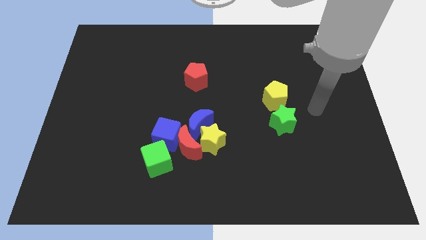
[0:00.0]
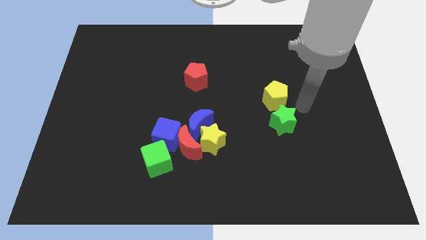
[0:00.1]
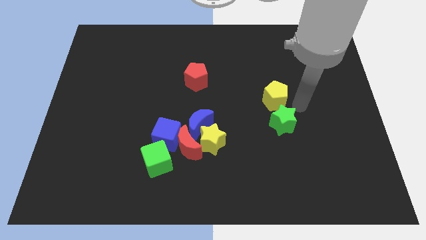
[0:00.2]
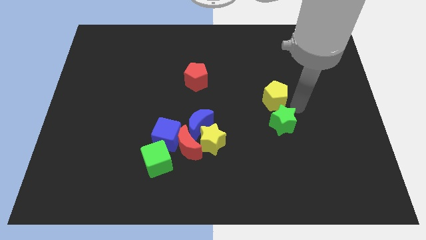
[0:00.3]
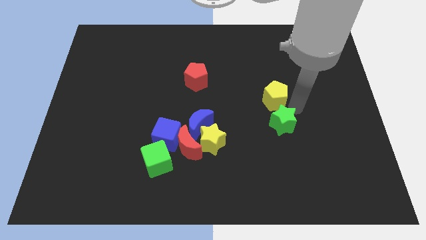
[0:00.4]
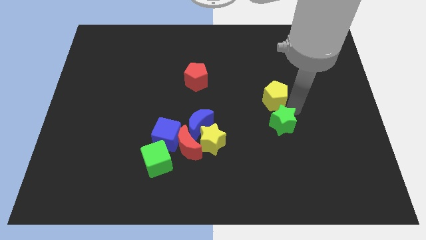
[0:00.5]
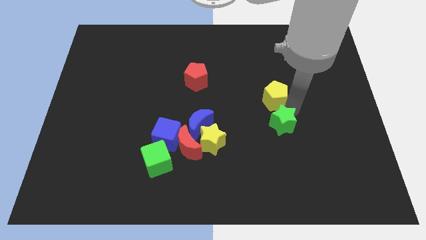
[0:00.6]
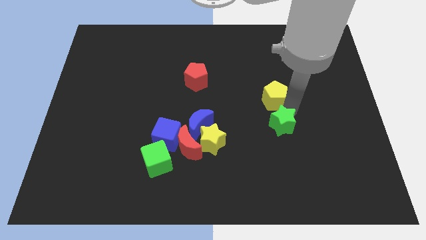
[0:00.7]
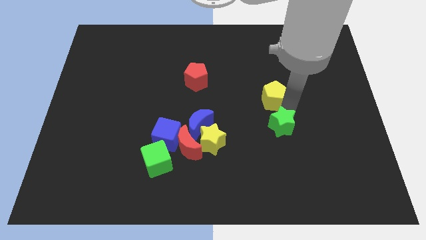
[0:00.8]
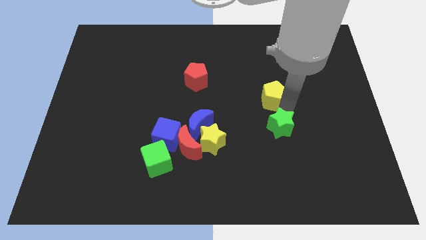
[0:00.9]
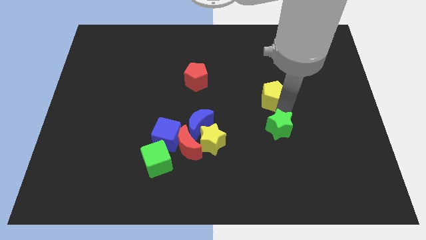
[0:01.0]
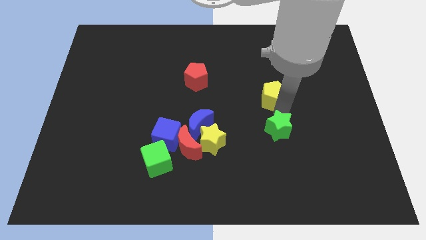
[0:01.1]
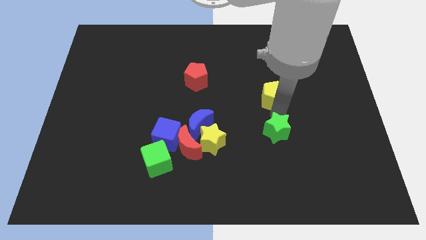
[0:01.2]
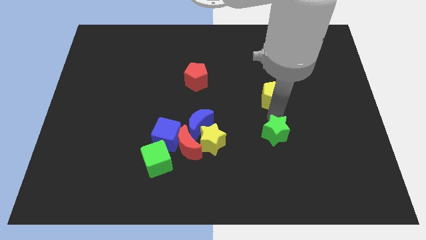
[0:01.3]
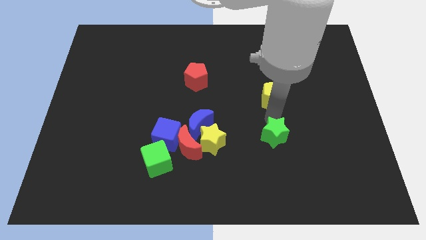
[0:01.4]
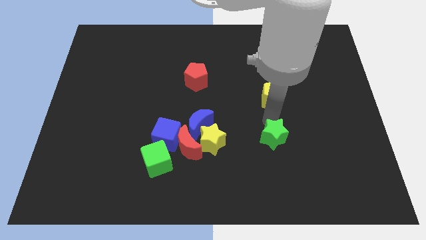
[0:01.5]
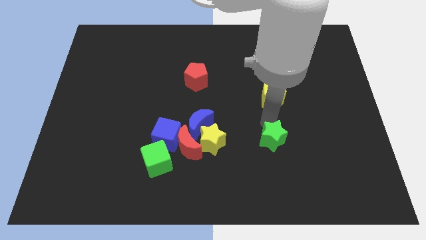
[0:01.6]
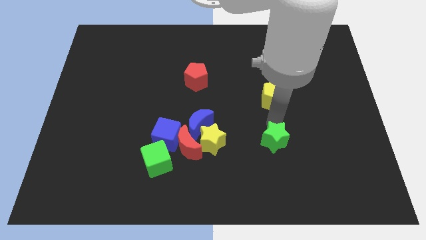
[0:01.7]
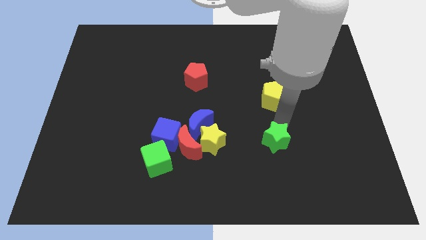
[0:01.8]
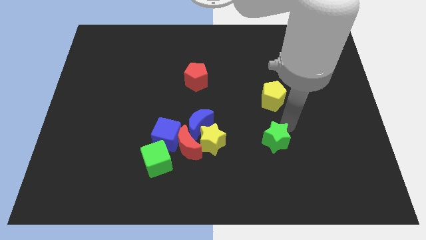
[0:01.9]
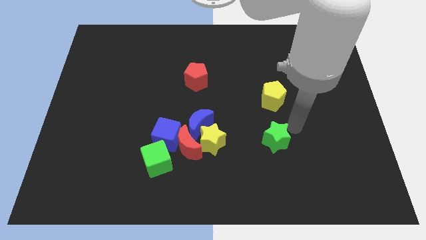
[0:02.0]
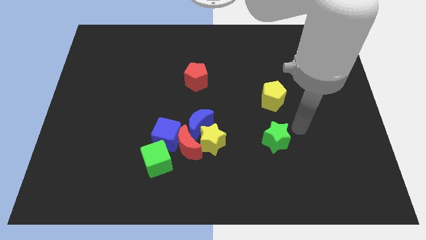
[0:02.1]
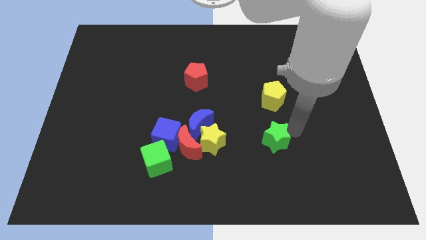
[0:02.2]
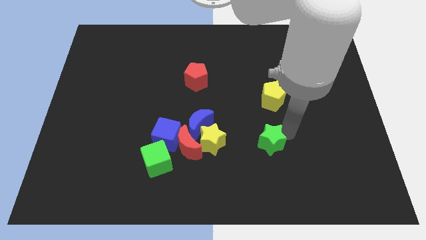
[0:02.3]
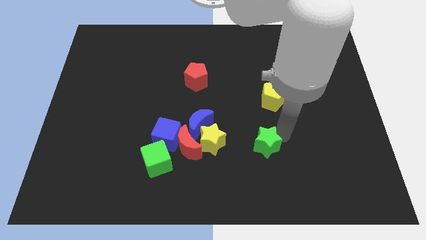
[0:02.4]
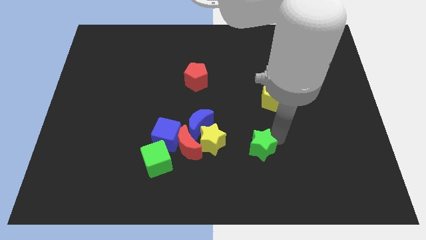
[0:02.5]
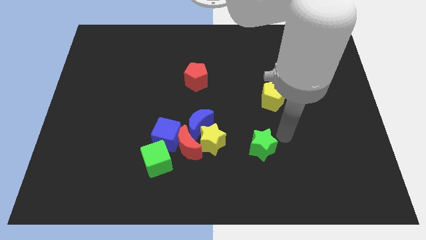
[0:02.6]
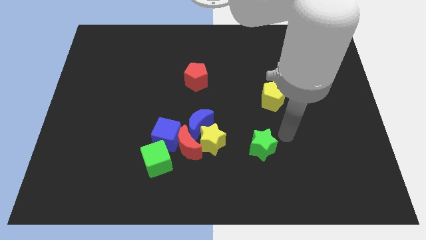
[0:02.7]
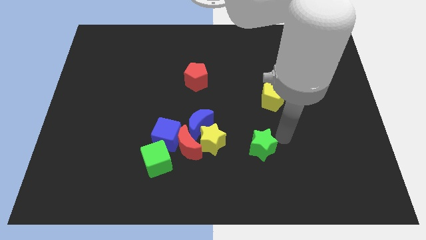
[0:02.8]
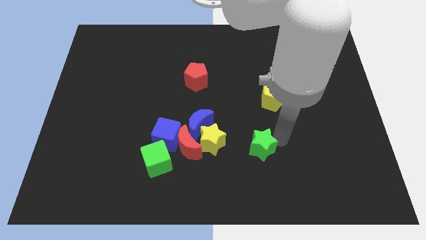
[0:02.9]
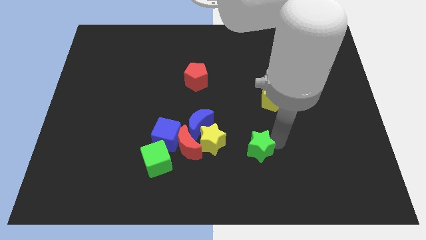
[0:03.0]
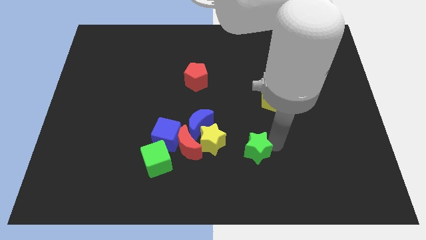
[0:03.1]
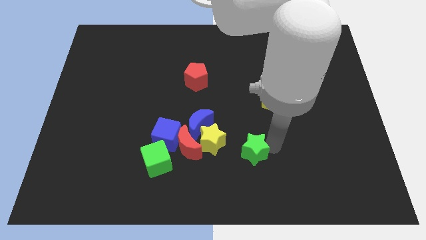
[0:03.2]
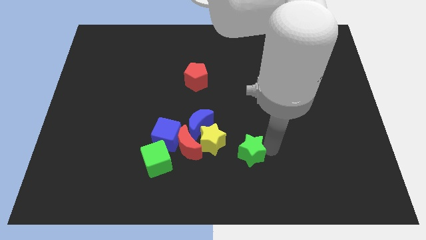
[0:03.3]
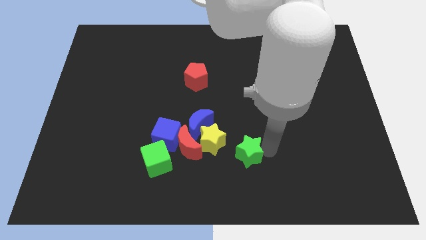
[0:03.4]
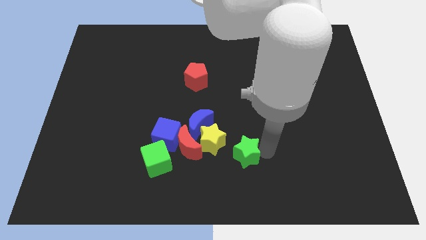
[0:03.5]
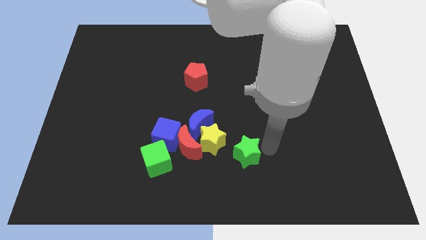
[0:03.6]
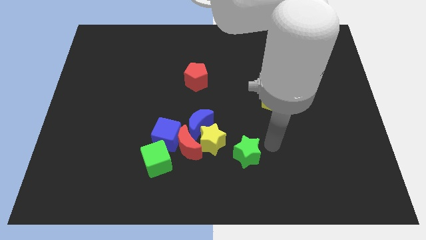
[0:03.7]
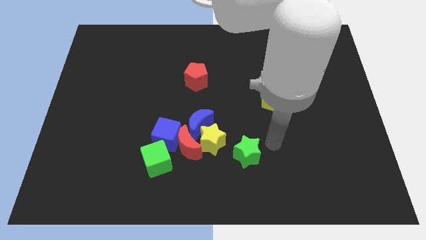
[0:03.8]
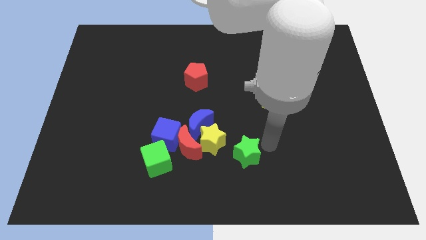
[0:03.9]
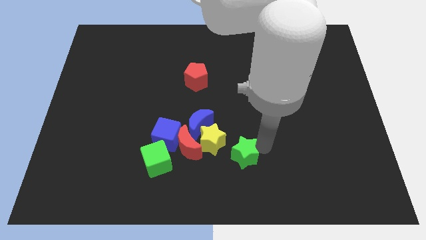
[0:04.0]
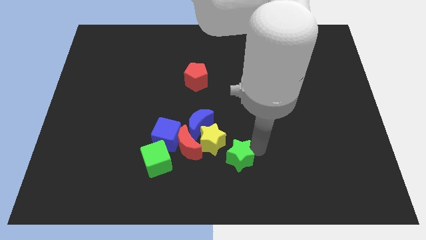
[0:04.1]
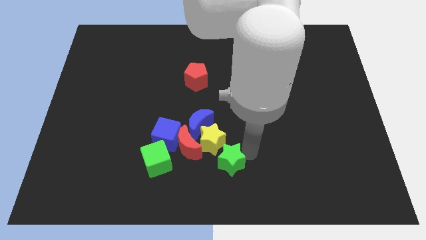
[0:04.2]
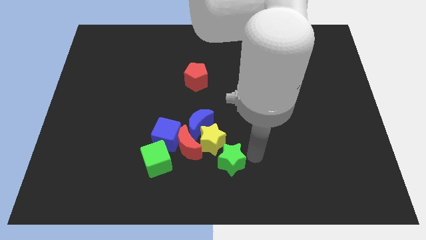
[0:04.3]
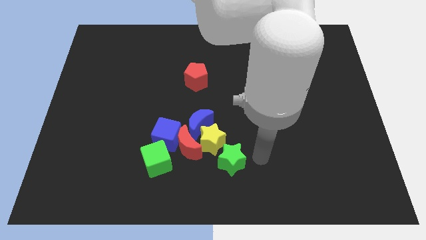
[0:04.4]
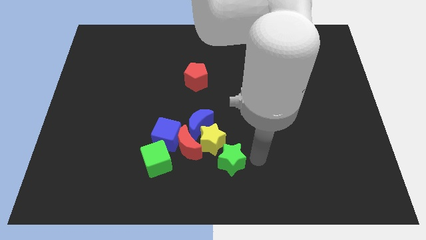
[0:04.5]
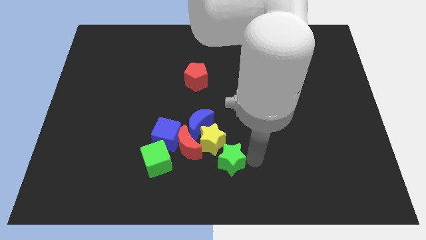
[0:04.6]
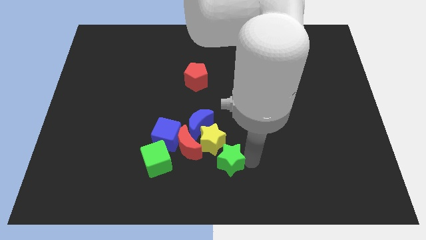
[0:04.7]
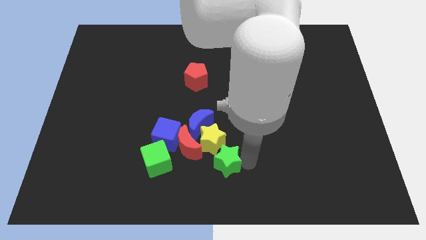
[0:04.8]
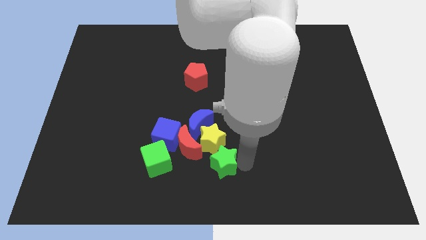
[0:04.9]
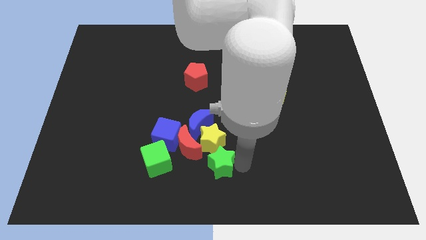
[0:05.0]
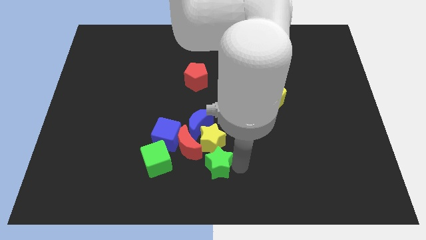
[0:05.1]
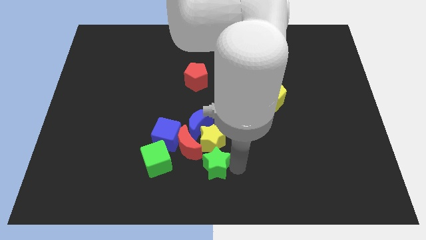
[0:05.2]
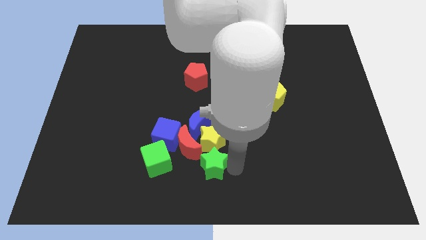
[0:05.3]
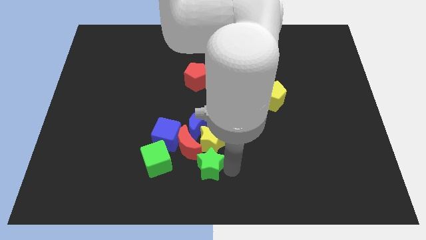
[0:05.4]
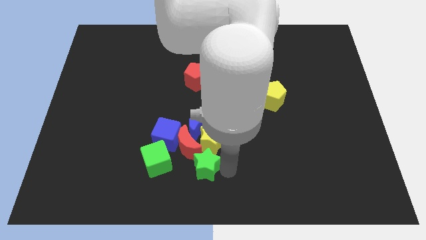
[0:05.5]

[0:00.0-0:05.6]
slide the green star to the red moon

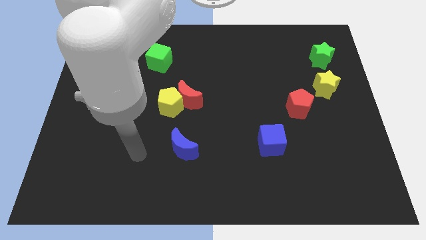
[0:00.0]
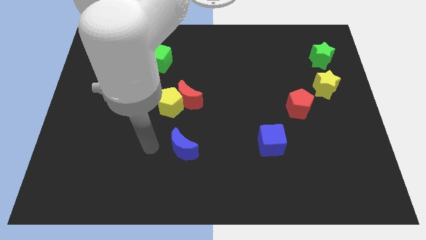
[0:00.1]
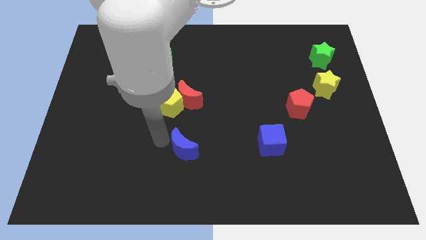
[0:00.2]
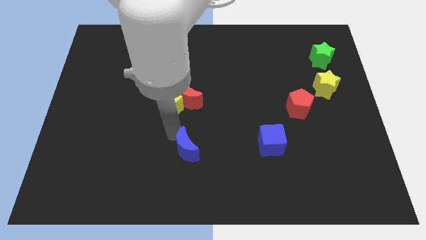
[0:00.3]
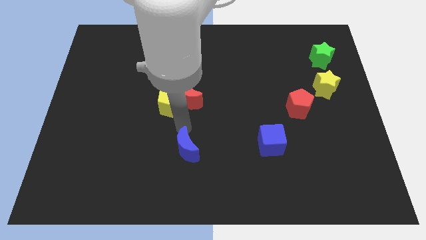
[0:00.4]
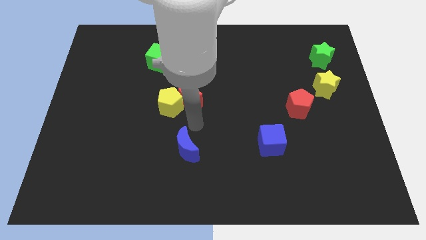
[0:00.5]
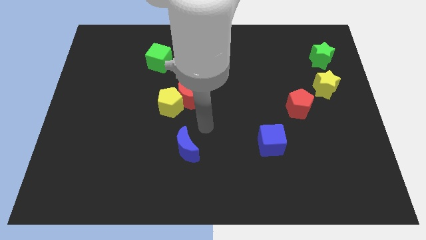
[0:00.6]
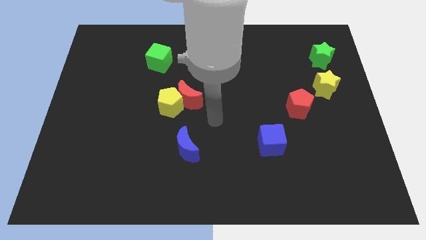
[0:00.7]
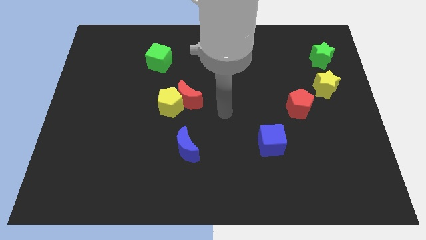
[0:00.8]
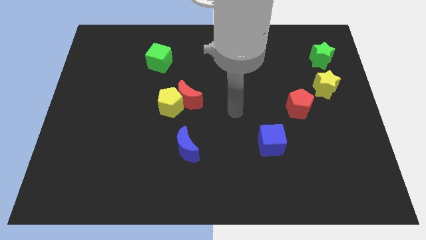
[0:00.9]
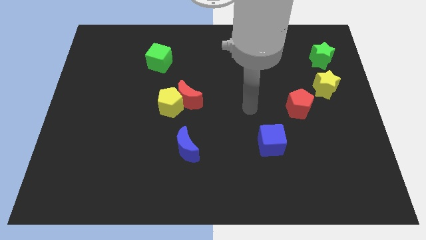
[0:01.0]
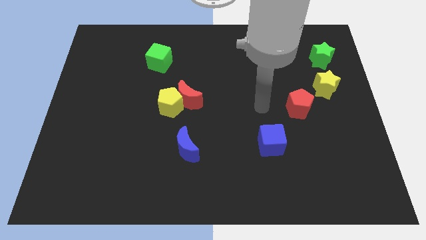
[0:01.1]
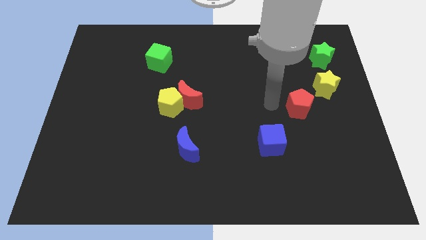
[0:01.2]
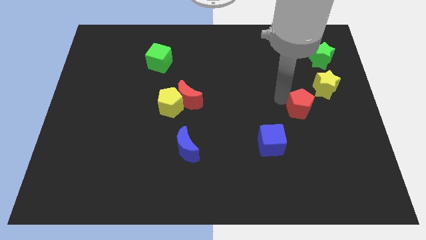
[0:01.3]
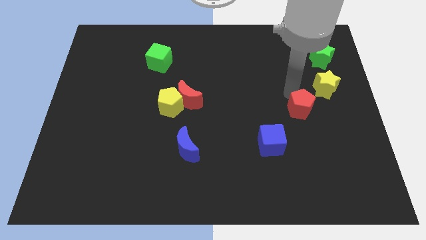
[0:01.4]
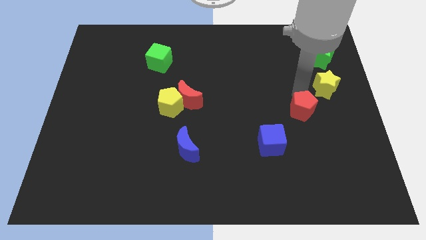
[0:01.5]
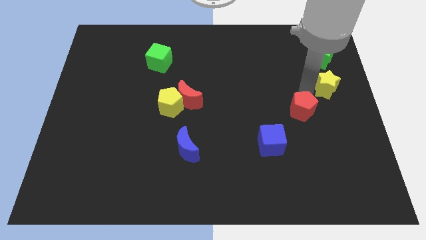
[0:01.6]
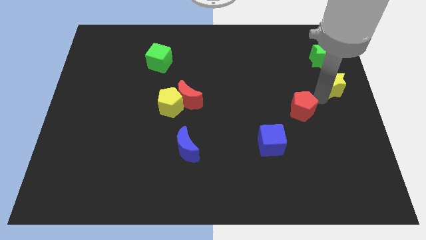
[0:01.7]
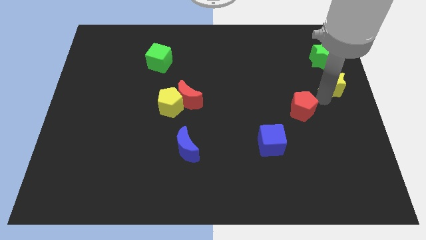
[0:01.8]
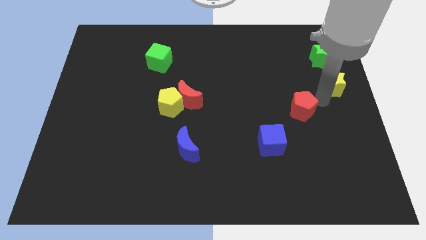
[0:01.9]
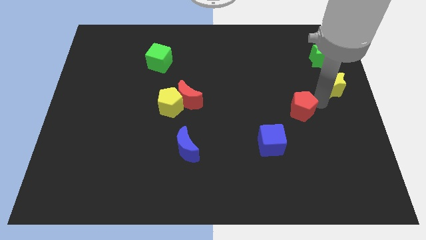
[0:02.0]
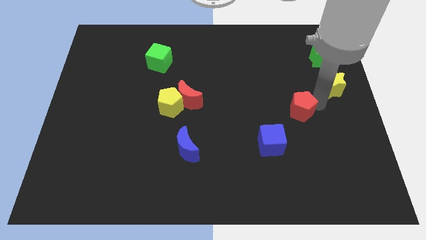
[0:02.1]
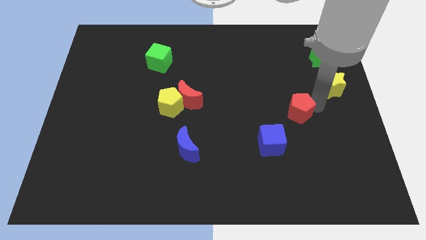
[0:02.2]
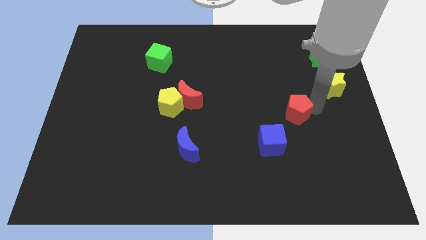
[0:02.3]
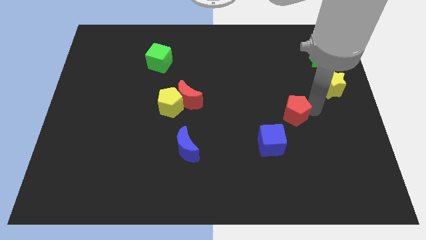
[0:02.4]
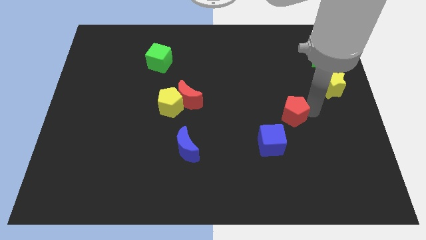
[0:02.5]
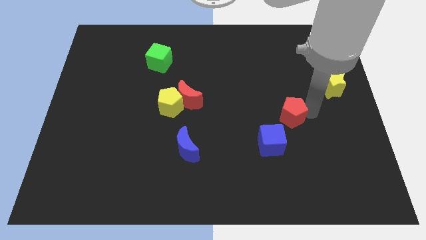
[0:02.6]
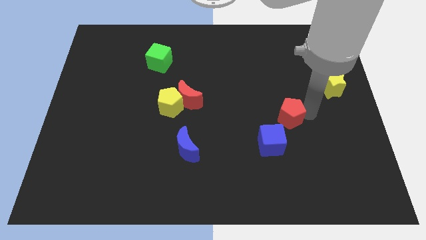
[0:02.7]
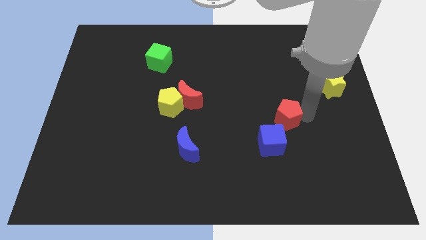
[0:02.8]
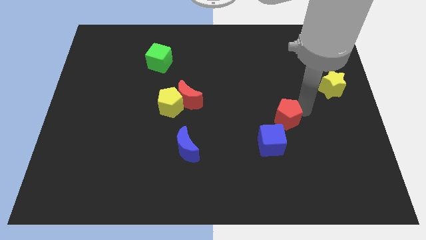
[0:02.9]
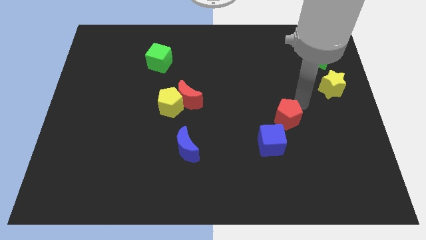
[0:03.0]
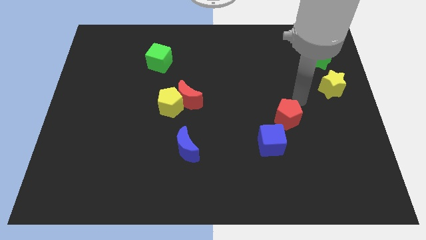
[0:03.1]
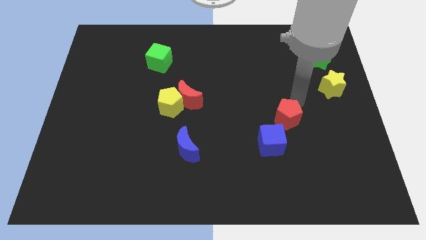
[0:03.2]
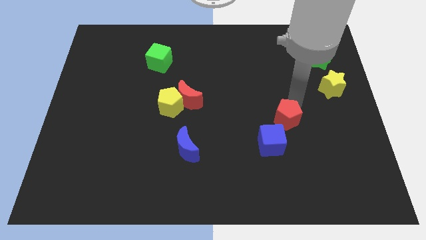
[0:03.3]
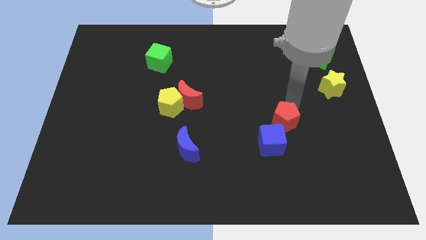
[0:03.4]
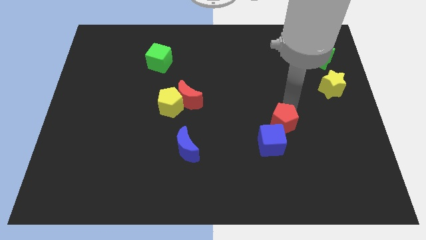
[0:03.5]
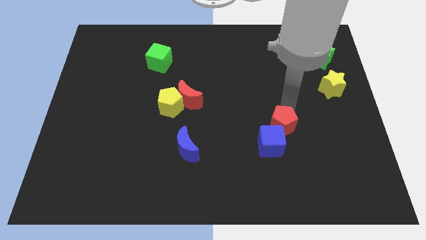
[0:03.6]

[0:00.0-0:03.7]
push the red pentagon next to the blue cube
